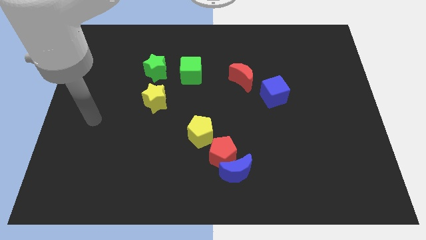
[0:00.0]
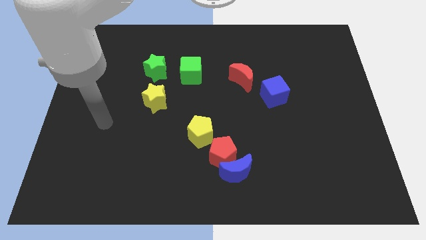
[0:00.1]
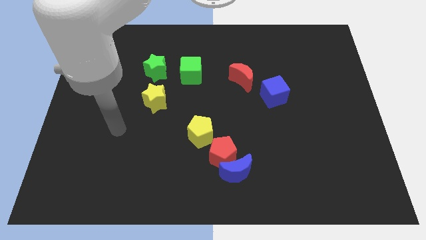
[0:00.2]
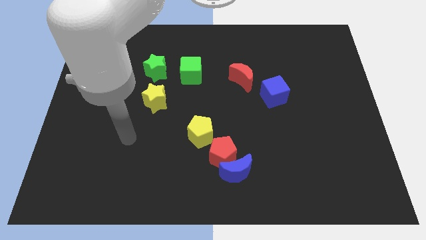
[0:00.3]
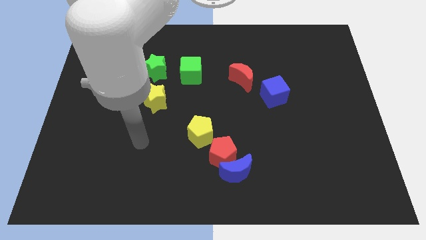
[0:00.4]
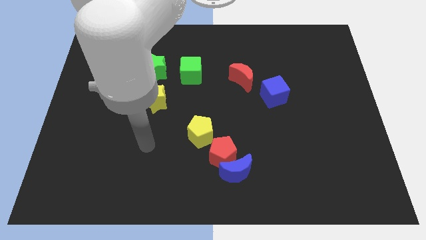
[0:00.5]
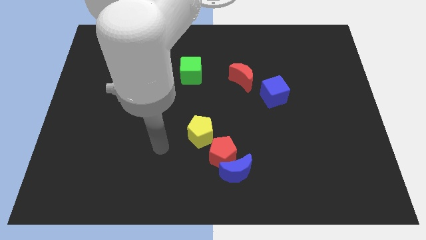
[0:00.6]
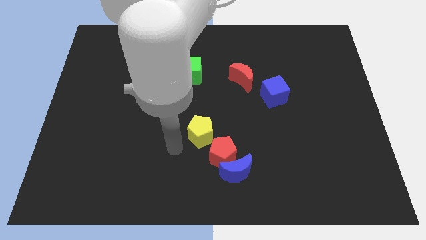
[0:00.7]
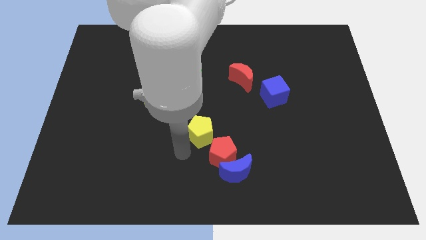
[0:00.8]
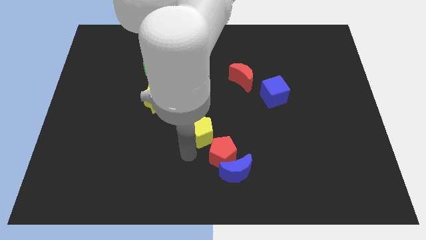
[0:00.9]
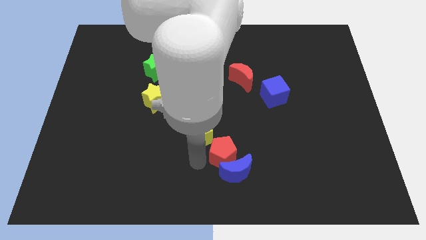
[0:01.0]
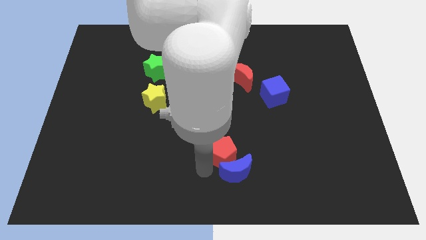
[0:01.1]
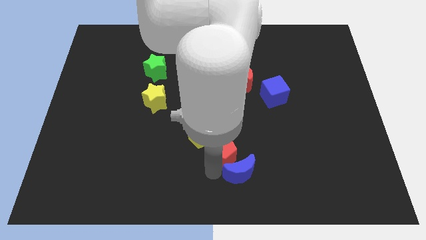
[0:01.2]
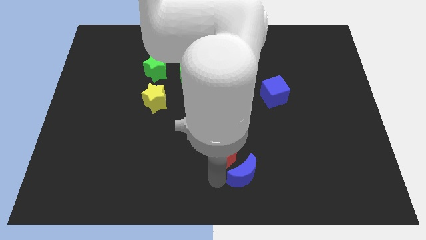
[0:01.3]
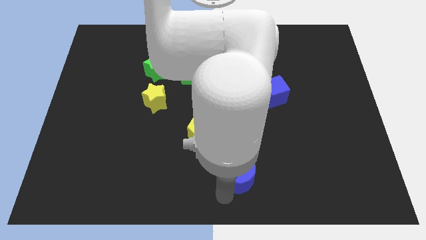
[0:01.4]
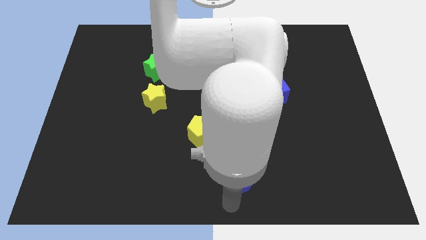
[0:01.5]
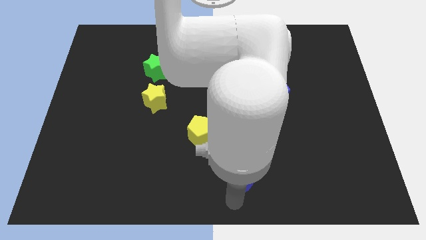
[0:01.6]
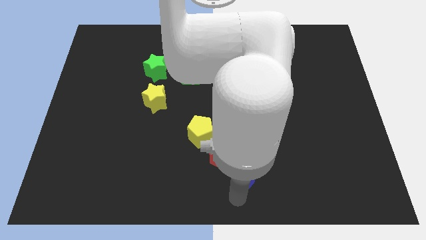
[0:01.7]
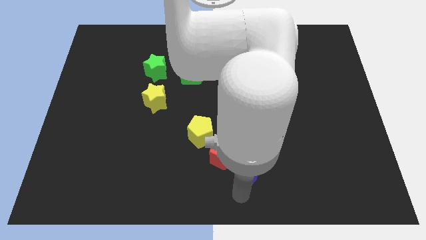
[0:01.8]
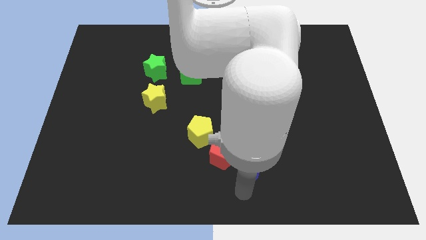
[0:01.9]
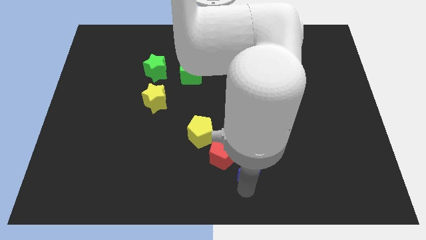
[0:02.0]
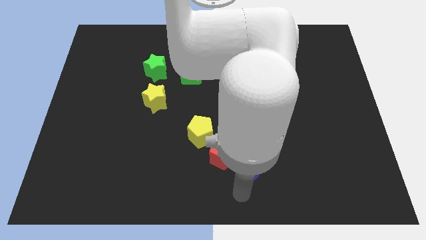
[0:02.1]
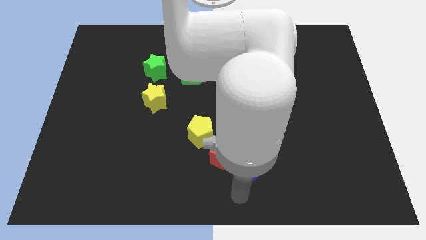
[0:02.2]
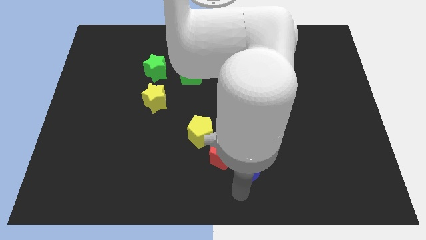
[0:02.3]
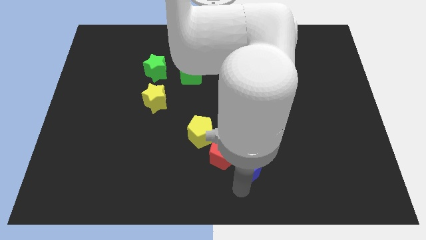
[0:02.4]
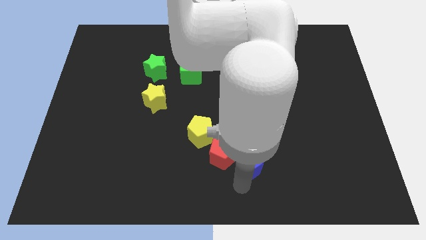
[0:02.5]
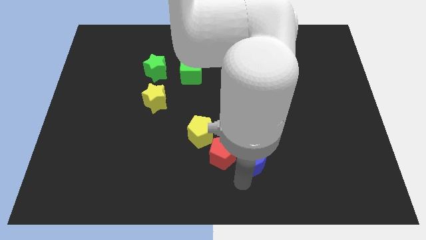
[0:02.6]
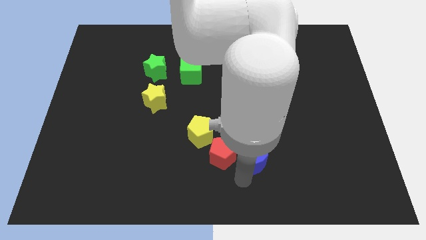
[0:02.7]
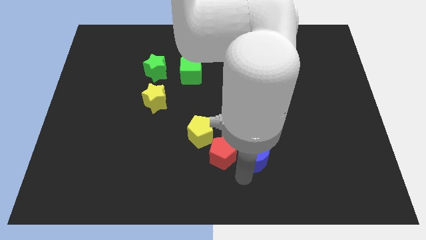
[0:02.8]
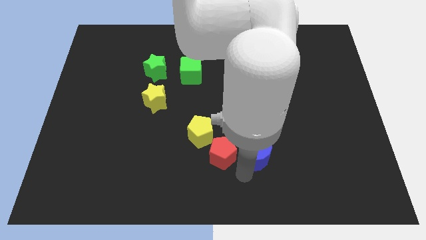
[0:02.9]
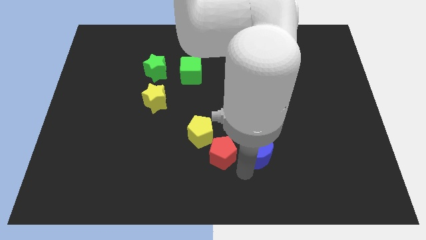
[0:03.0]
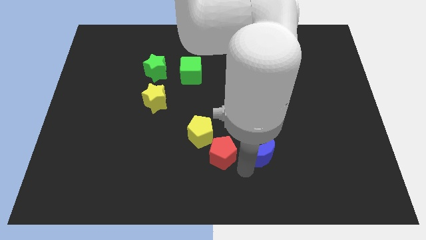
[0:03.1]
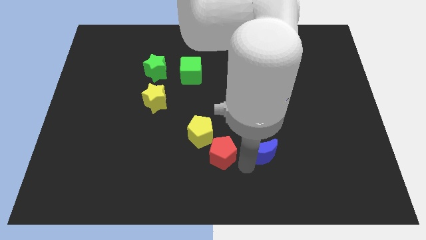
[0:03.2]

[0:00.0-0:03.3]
slightly slide the blue moon up and then to the right

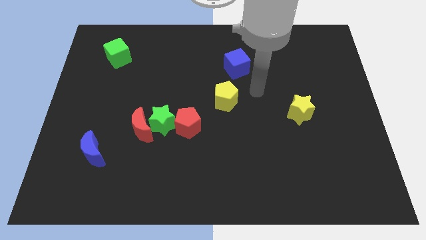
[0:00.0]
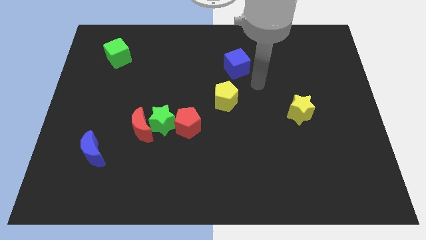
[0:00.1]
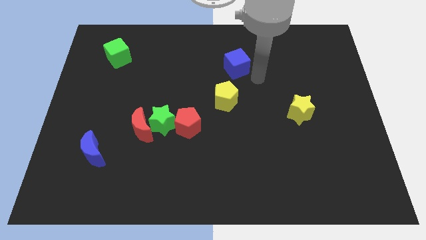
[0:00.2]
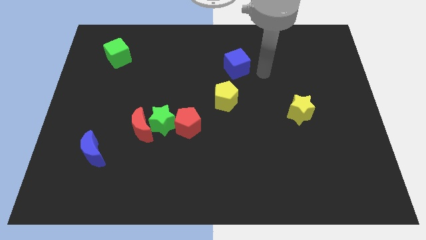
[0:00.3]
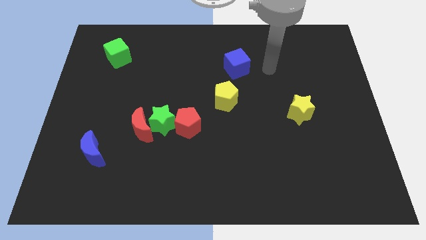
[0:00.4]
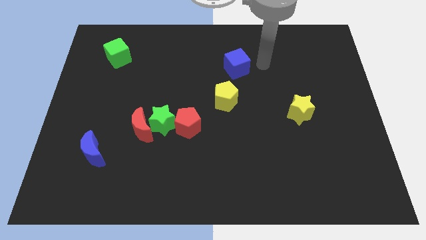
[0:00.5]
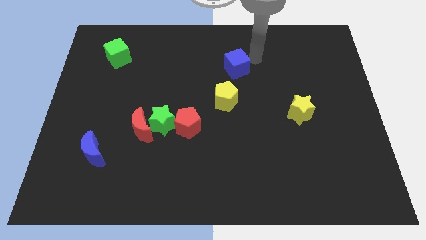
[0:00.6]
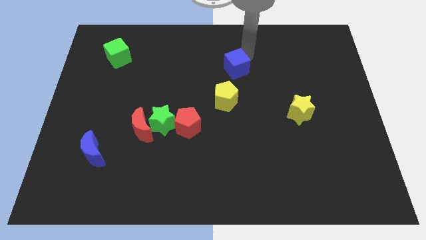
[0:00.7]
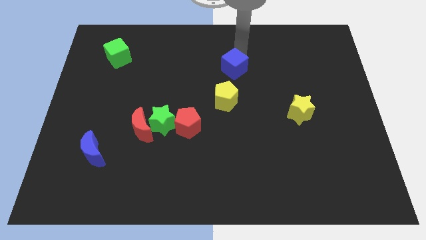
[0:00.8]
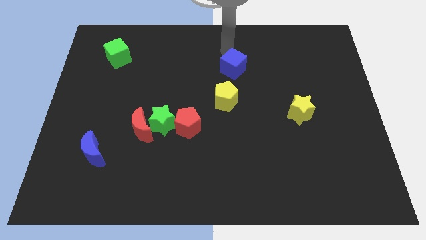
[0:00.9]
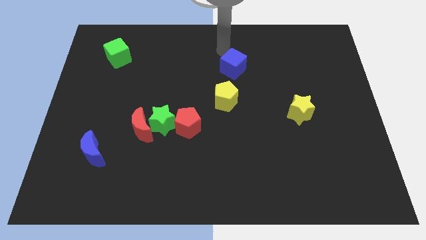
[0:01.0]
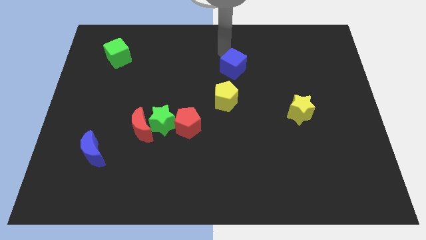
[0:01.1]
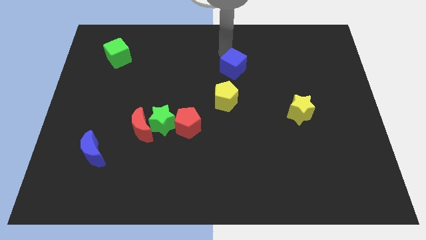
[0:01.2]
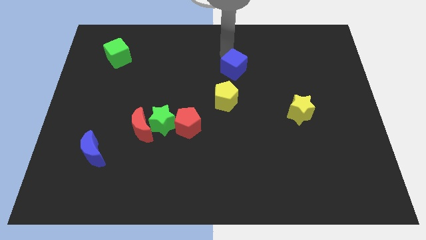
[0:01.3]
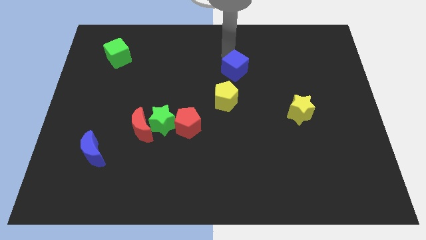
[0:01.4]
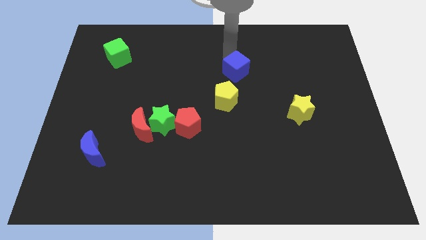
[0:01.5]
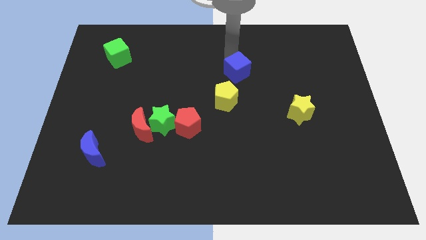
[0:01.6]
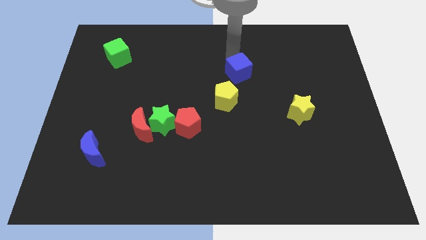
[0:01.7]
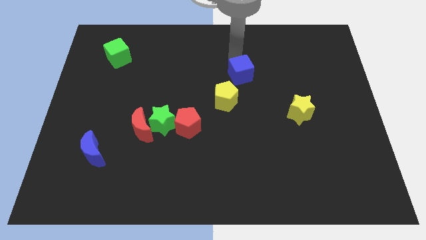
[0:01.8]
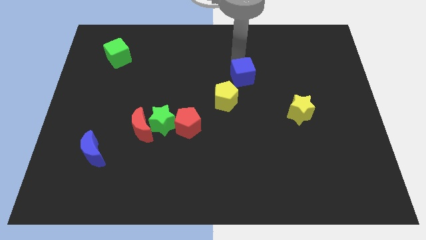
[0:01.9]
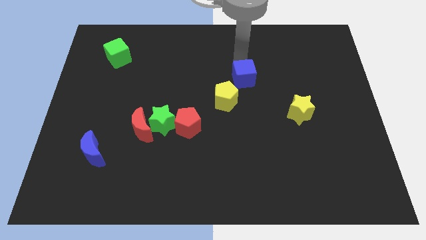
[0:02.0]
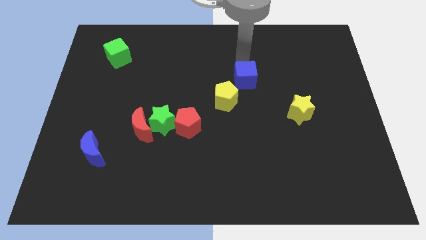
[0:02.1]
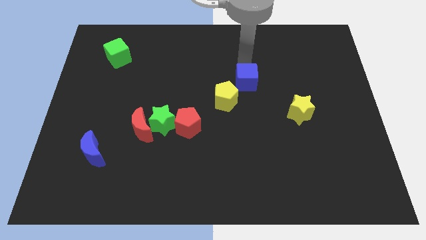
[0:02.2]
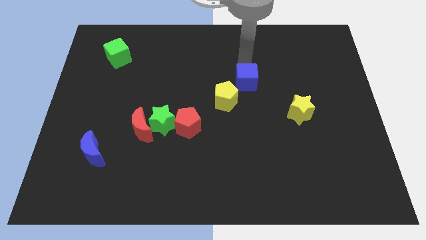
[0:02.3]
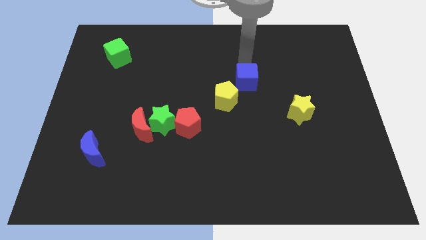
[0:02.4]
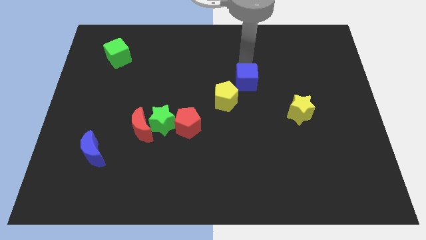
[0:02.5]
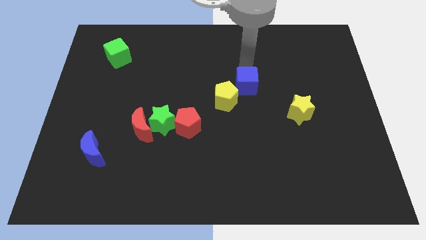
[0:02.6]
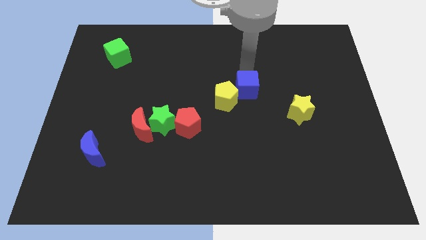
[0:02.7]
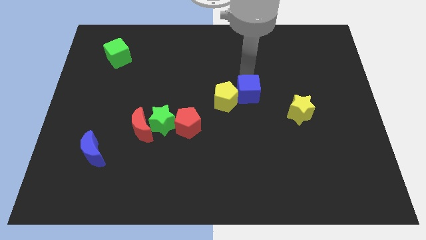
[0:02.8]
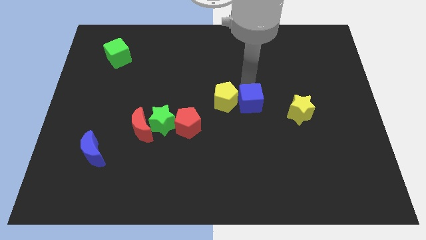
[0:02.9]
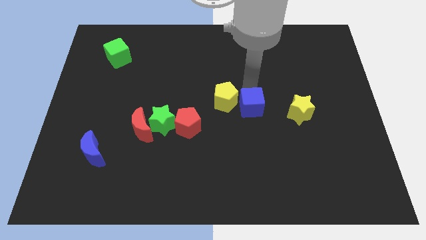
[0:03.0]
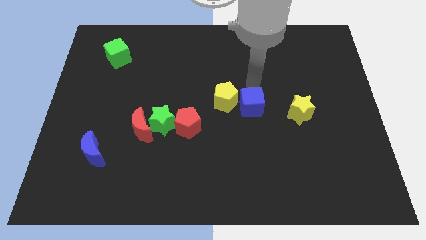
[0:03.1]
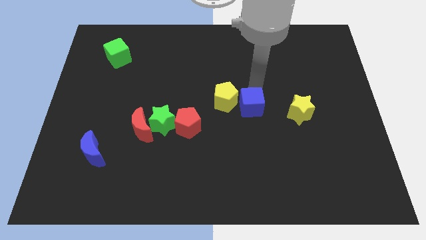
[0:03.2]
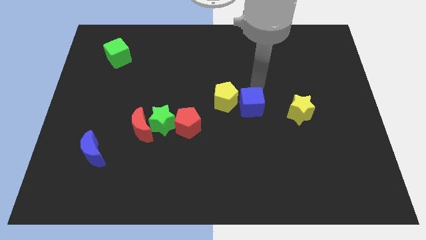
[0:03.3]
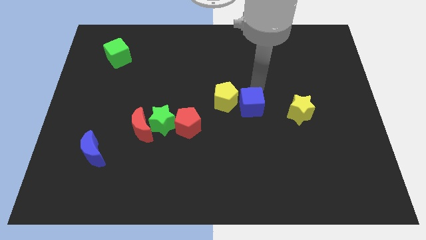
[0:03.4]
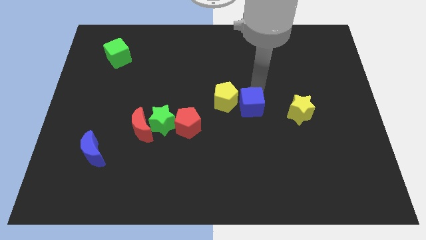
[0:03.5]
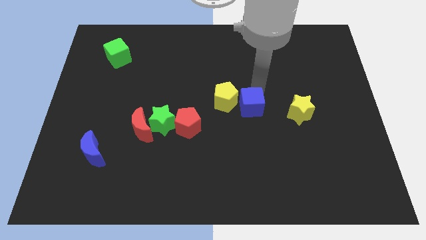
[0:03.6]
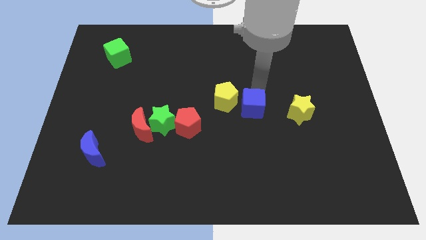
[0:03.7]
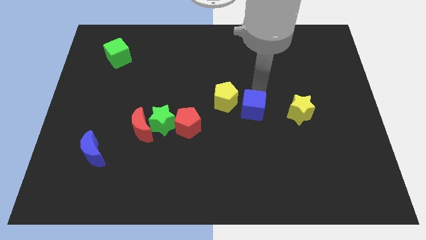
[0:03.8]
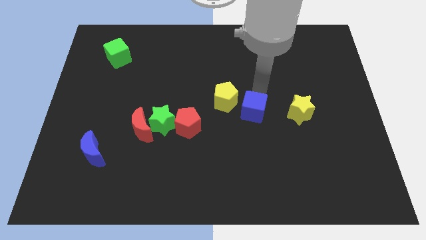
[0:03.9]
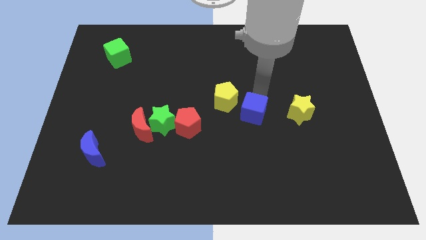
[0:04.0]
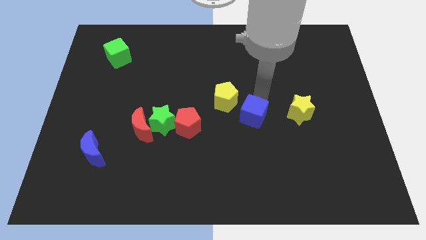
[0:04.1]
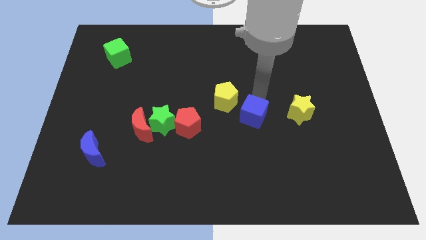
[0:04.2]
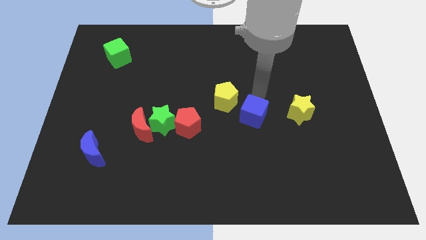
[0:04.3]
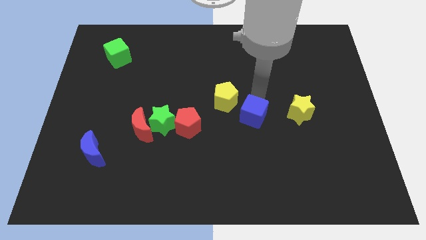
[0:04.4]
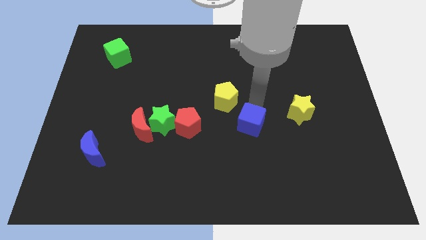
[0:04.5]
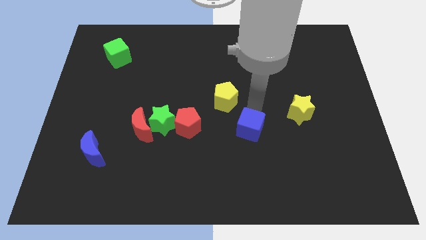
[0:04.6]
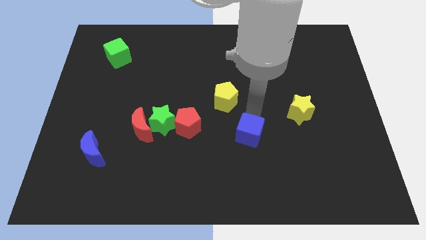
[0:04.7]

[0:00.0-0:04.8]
move the blue cube downwards

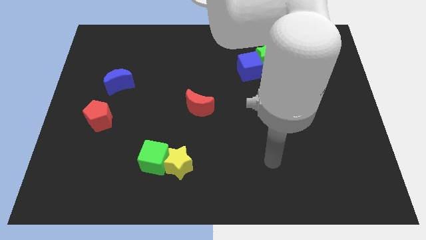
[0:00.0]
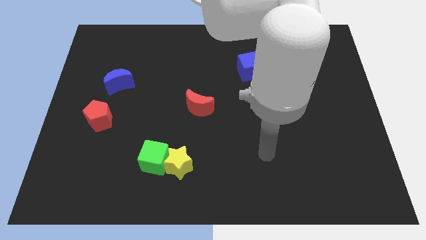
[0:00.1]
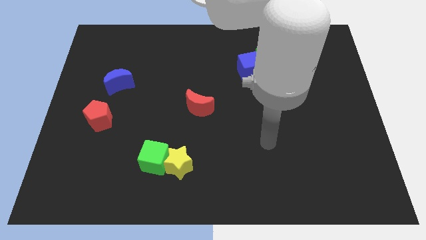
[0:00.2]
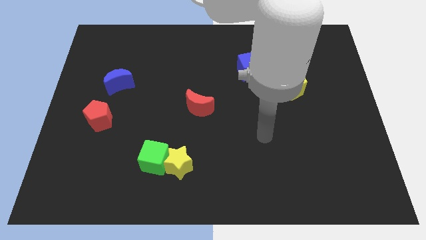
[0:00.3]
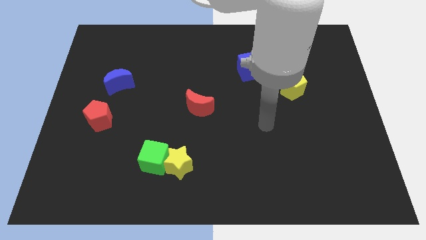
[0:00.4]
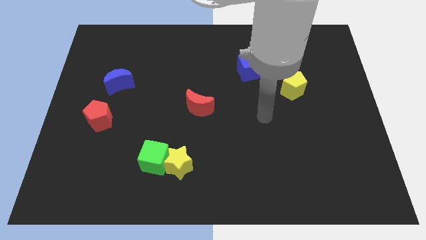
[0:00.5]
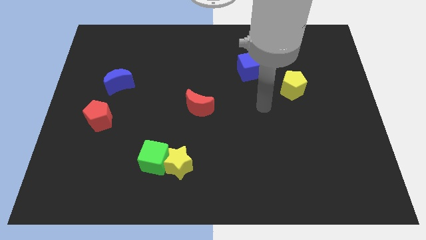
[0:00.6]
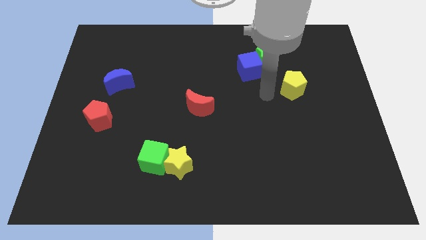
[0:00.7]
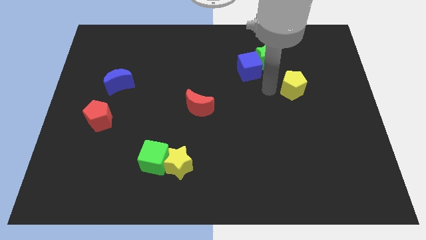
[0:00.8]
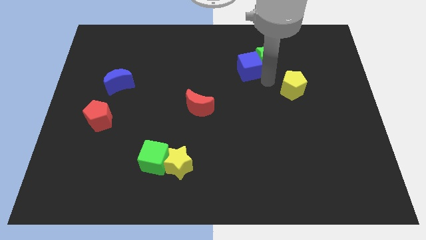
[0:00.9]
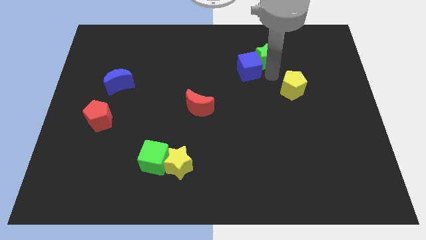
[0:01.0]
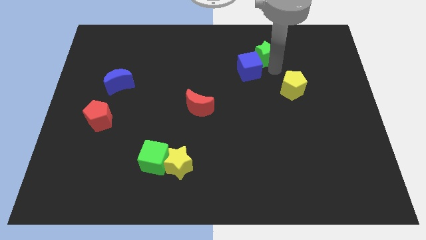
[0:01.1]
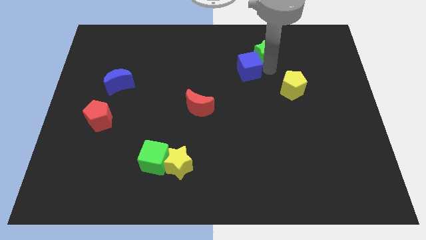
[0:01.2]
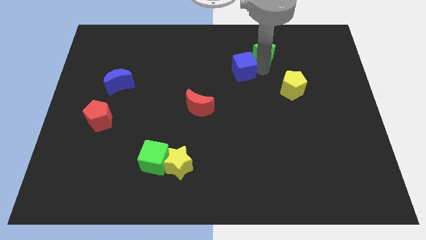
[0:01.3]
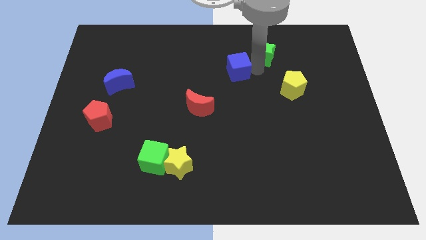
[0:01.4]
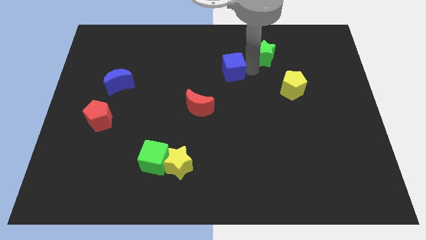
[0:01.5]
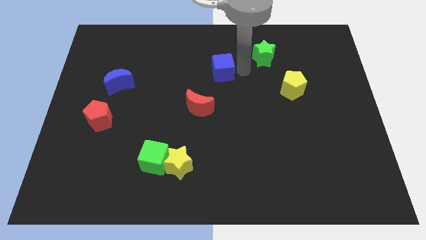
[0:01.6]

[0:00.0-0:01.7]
slightly slide the blue cube to the left
